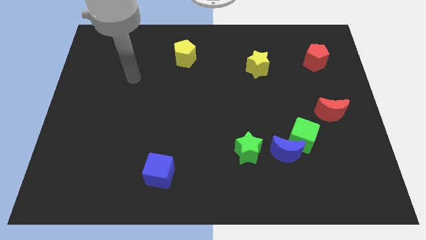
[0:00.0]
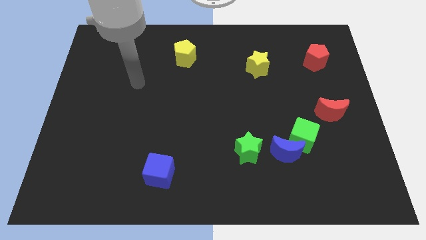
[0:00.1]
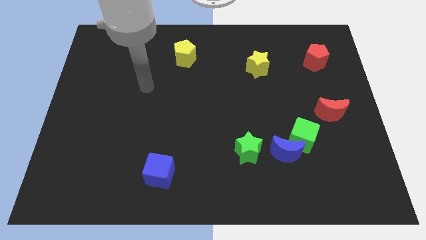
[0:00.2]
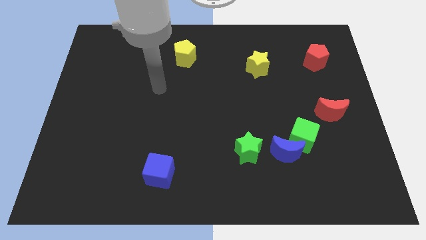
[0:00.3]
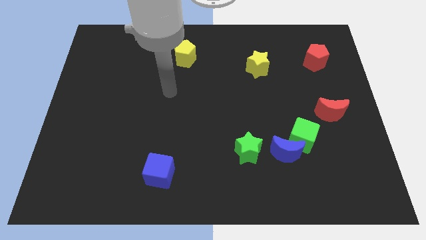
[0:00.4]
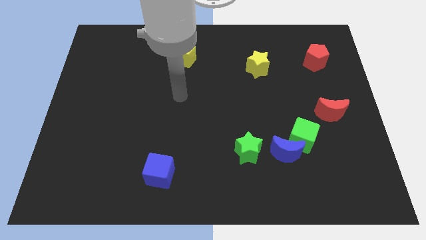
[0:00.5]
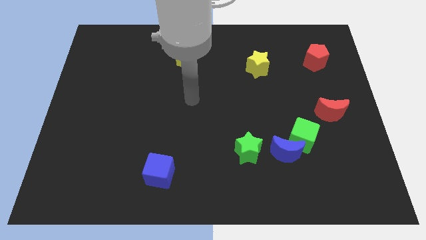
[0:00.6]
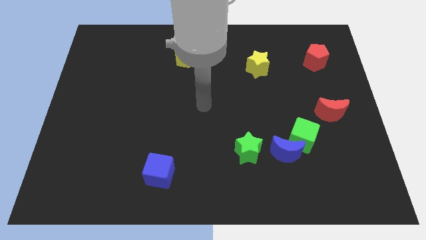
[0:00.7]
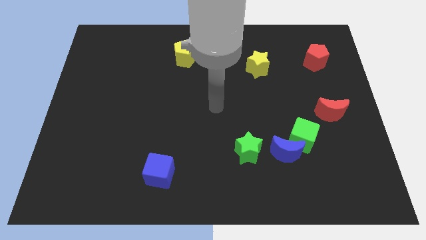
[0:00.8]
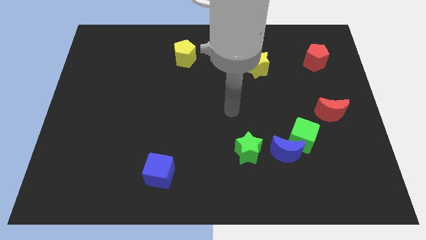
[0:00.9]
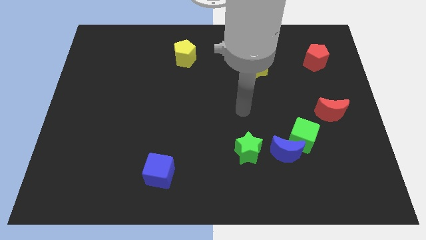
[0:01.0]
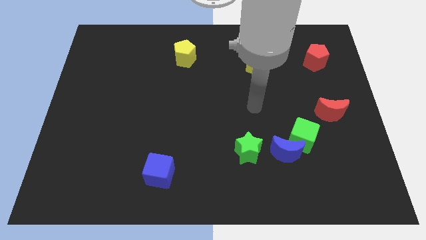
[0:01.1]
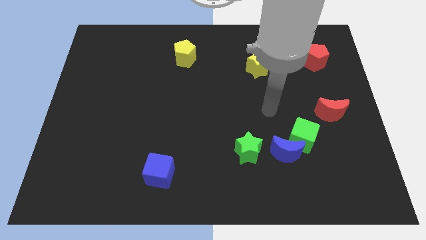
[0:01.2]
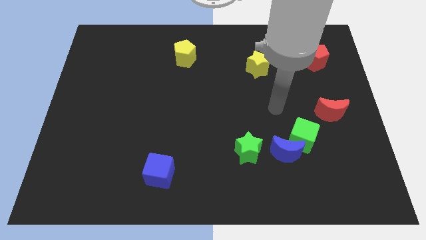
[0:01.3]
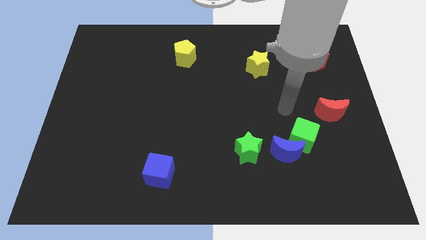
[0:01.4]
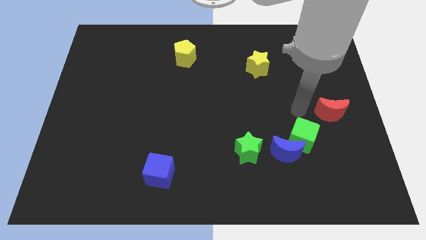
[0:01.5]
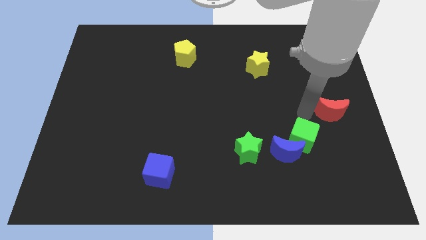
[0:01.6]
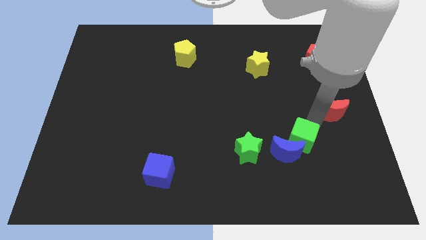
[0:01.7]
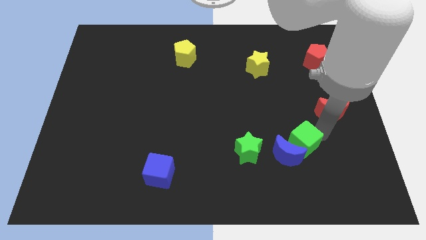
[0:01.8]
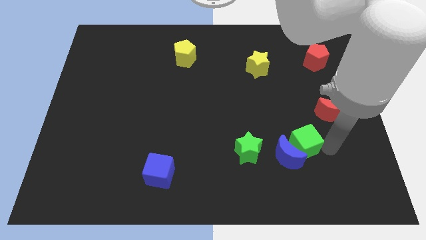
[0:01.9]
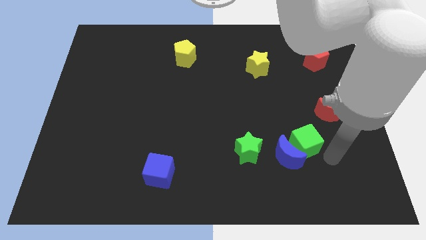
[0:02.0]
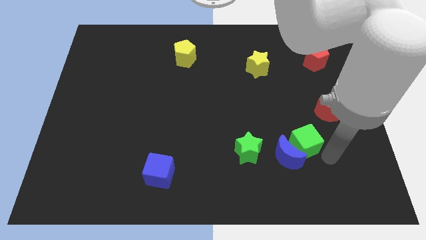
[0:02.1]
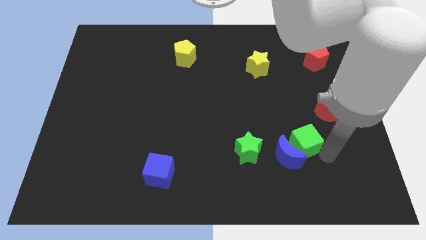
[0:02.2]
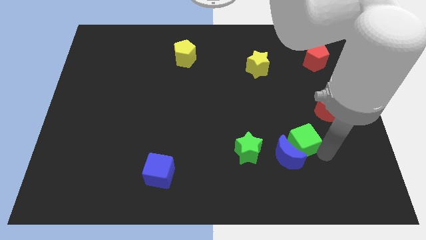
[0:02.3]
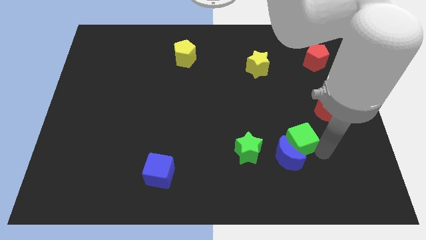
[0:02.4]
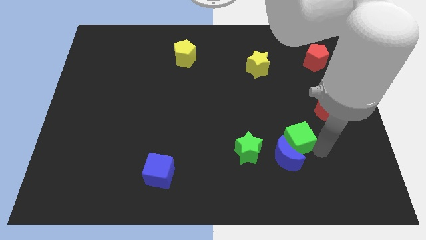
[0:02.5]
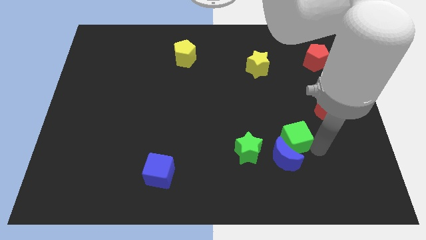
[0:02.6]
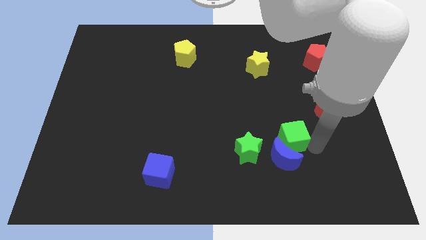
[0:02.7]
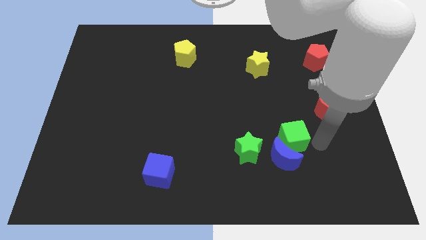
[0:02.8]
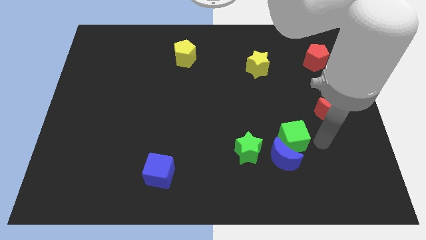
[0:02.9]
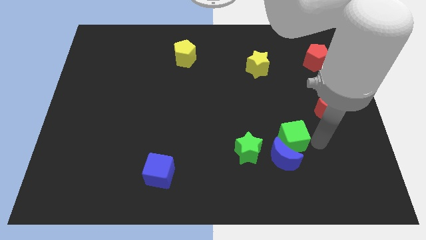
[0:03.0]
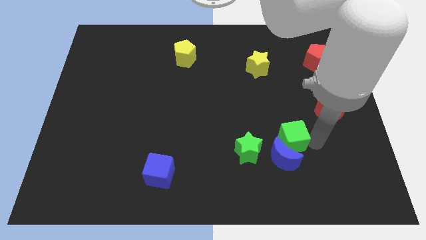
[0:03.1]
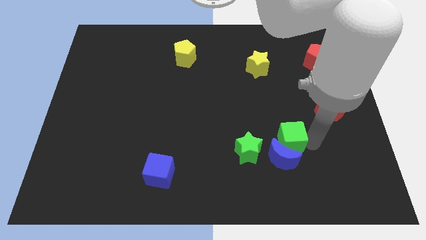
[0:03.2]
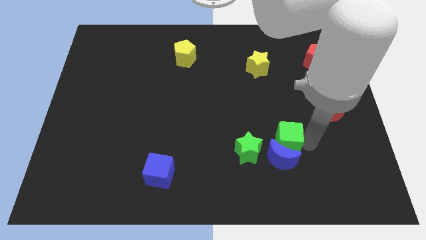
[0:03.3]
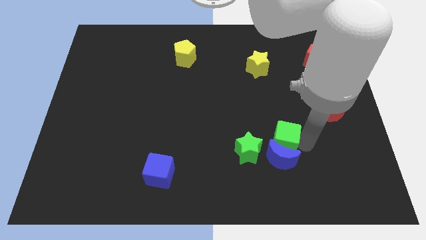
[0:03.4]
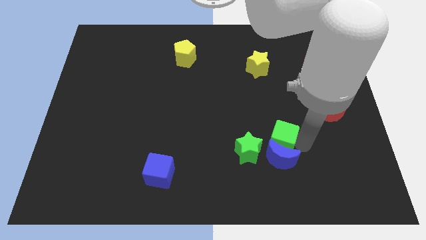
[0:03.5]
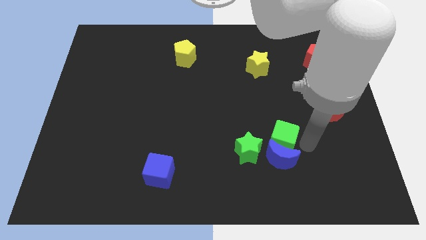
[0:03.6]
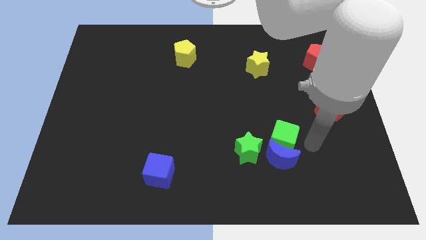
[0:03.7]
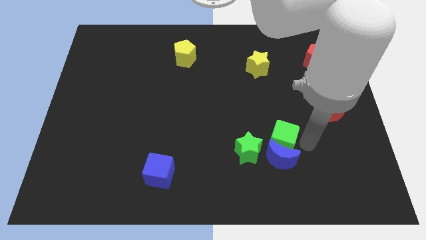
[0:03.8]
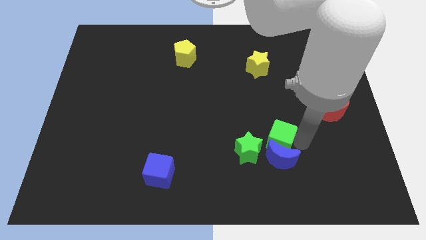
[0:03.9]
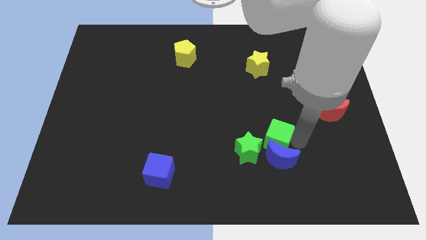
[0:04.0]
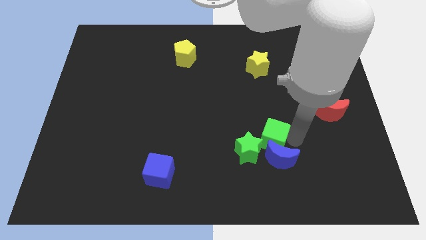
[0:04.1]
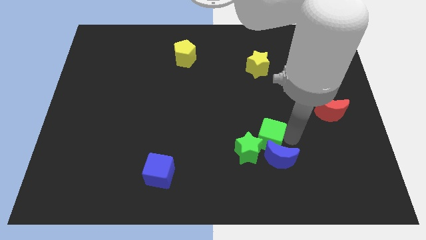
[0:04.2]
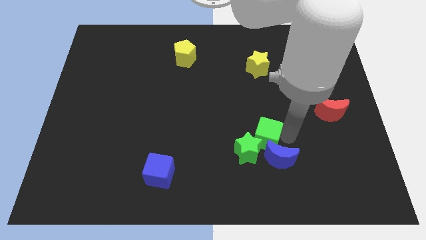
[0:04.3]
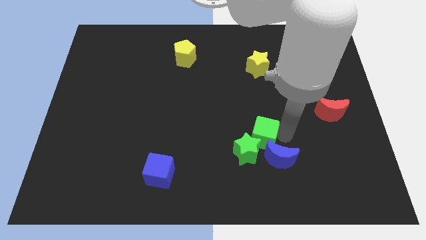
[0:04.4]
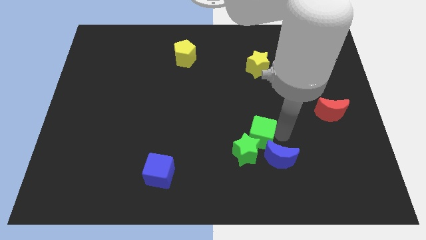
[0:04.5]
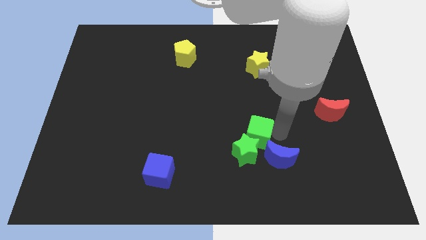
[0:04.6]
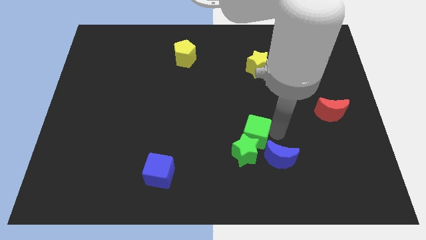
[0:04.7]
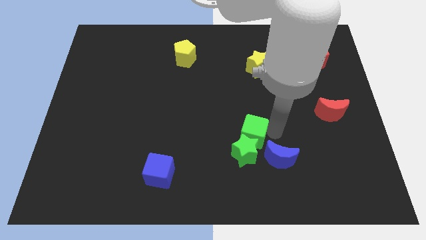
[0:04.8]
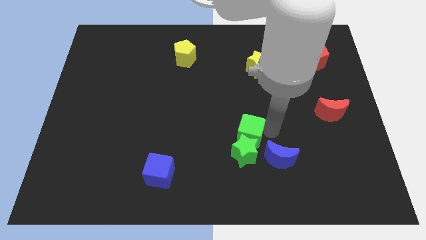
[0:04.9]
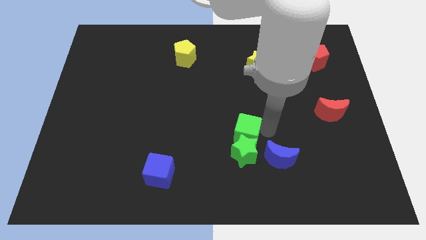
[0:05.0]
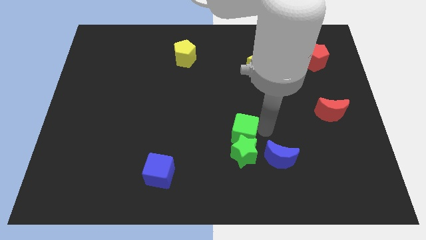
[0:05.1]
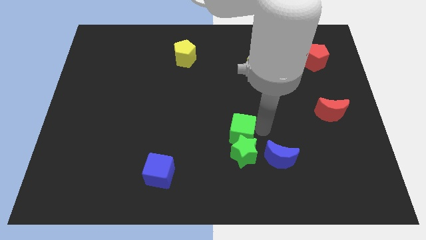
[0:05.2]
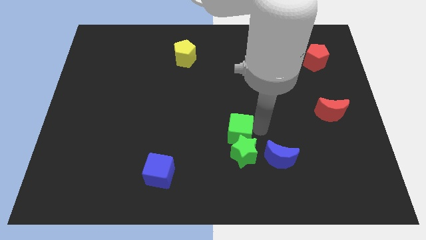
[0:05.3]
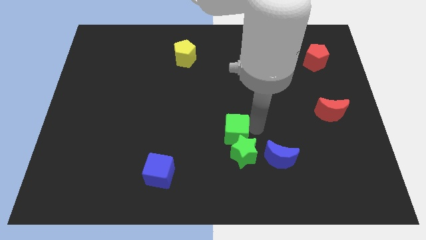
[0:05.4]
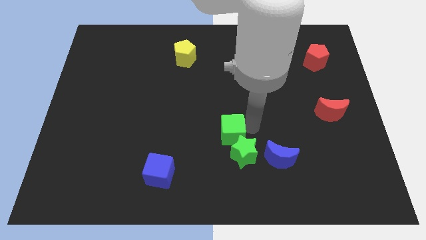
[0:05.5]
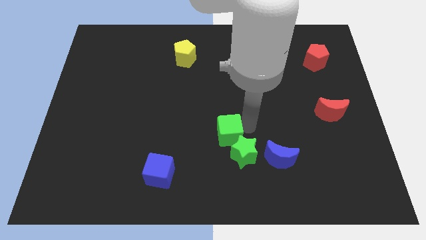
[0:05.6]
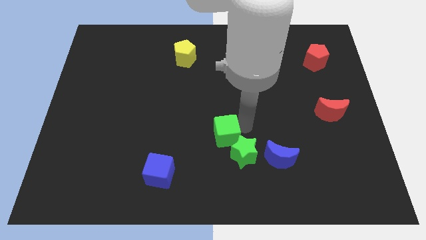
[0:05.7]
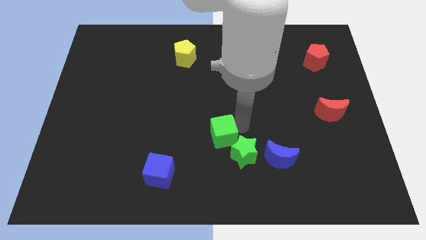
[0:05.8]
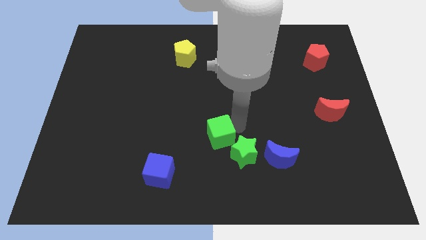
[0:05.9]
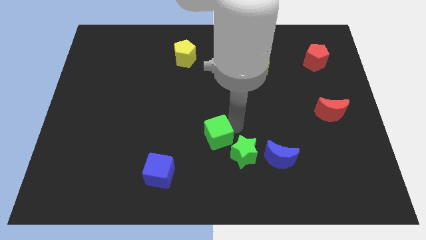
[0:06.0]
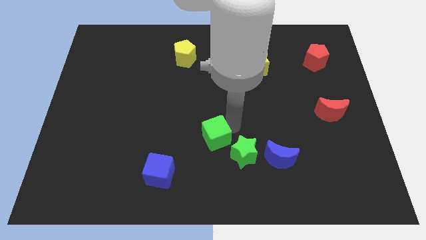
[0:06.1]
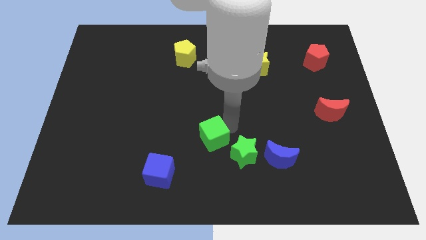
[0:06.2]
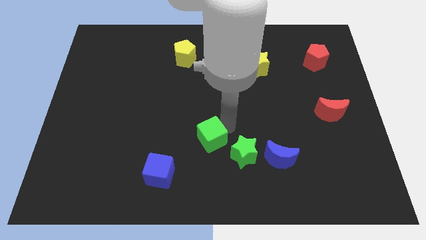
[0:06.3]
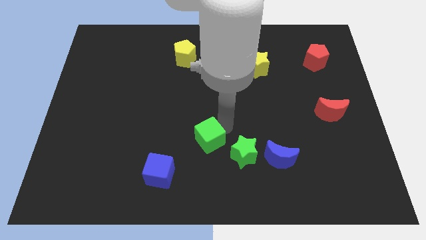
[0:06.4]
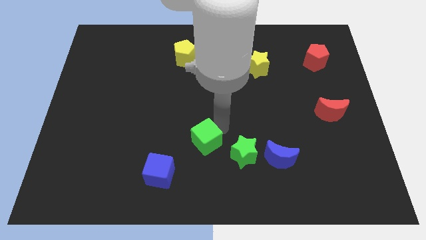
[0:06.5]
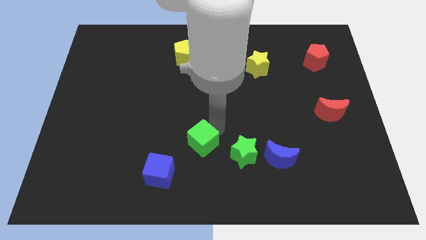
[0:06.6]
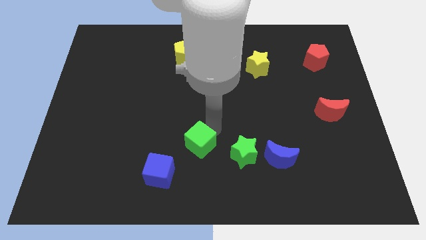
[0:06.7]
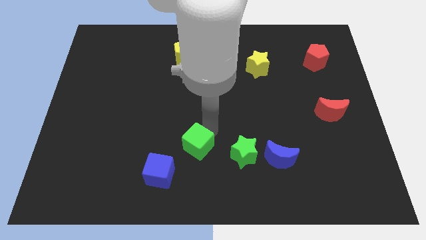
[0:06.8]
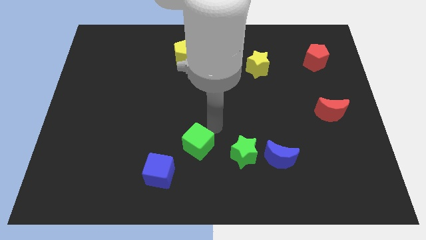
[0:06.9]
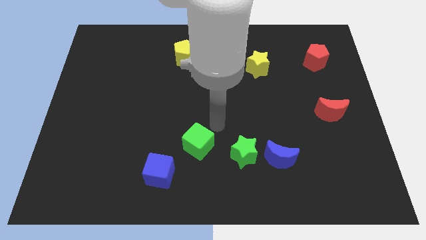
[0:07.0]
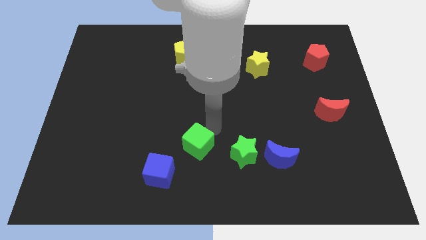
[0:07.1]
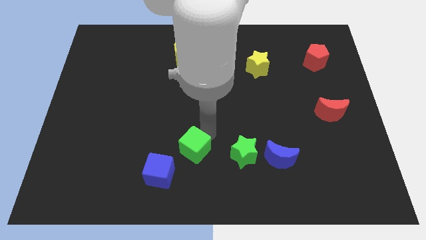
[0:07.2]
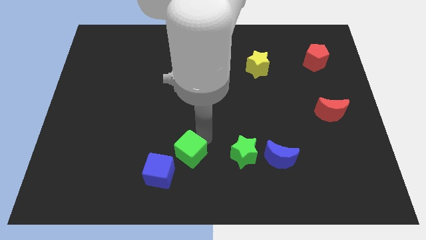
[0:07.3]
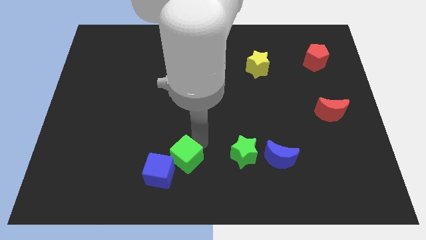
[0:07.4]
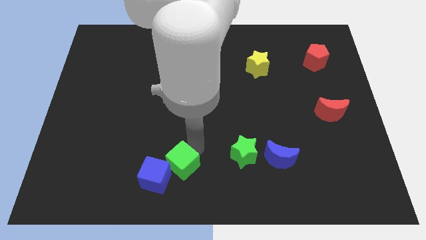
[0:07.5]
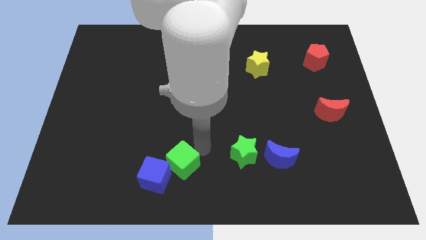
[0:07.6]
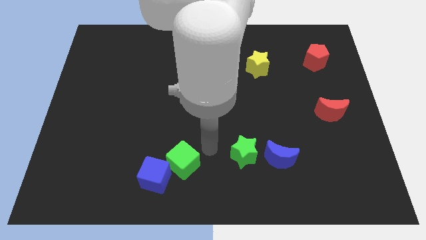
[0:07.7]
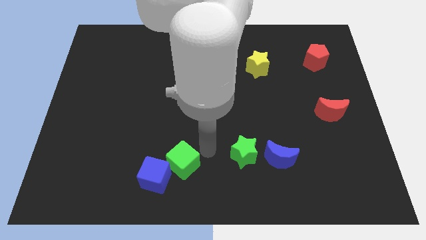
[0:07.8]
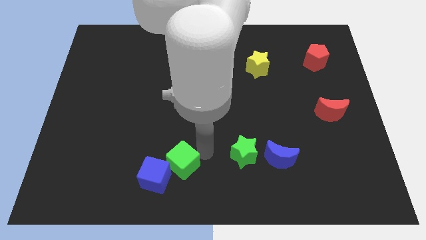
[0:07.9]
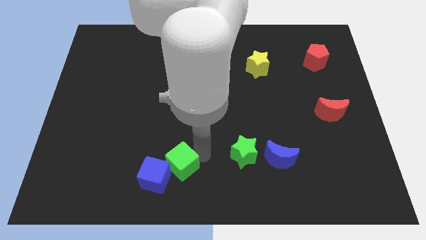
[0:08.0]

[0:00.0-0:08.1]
push the green cube to the blue cube
